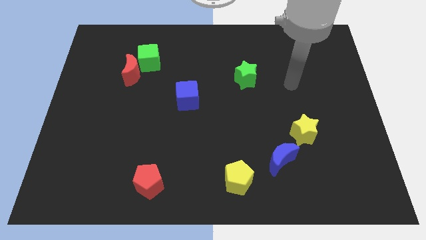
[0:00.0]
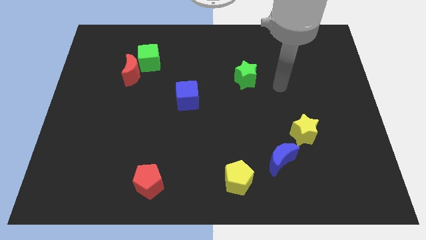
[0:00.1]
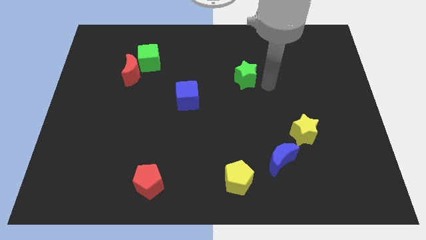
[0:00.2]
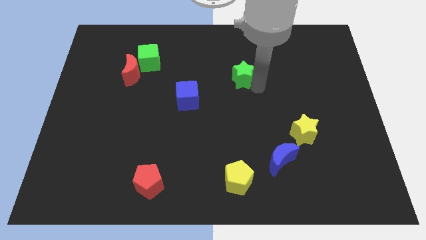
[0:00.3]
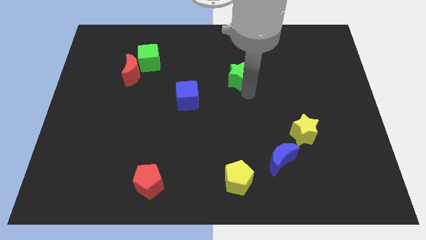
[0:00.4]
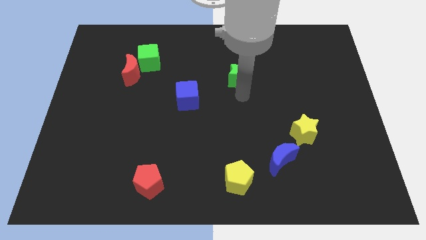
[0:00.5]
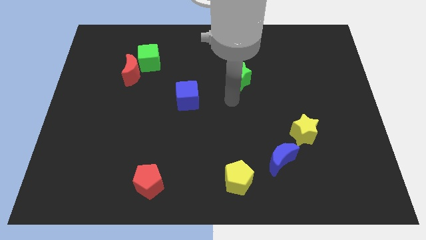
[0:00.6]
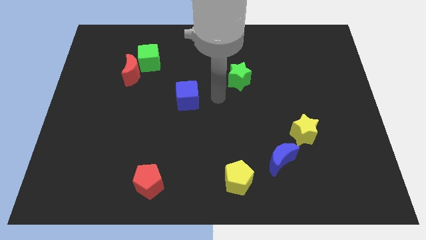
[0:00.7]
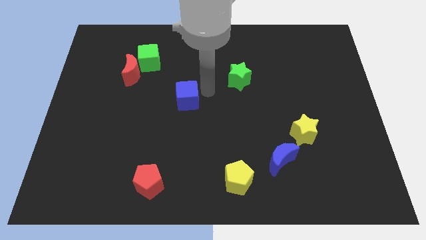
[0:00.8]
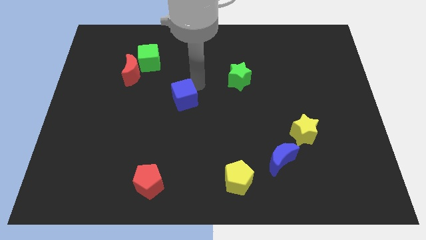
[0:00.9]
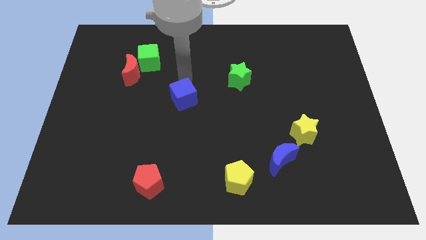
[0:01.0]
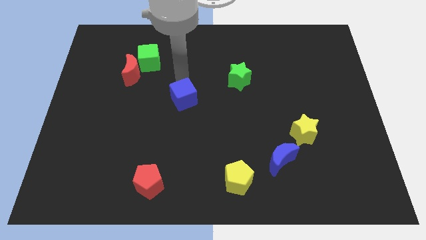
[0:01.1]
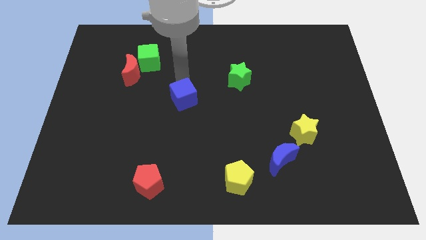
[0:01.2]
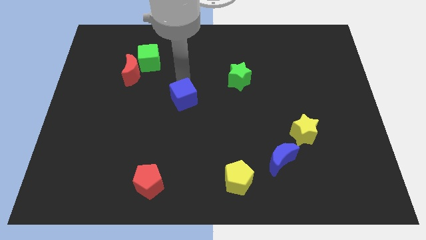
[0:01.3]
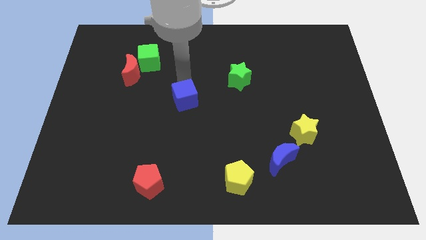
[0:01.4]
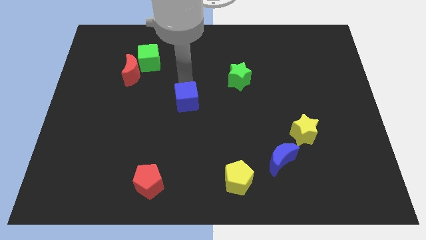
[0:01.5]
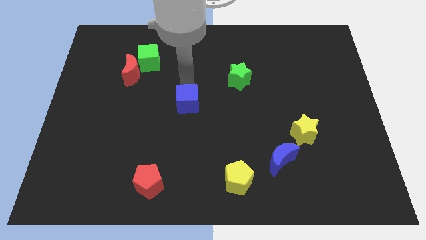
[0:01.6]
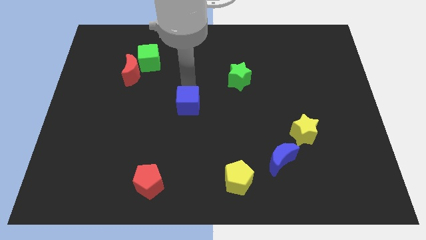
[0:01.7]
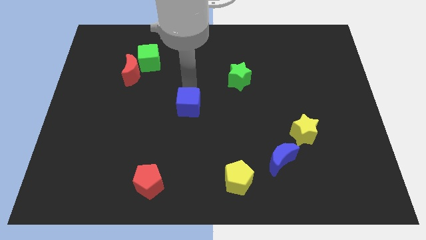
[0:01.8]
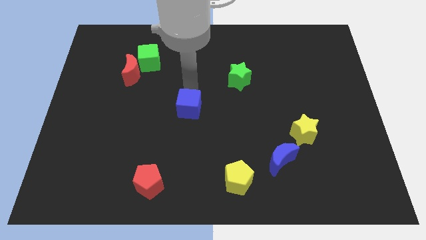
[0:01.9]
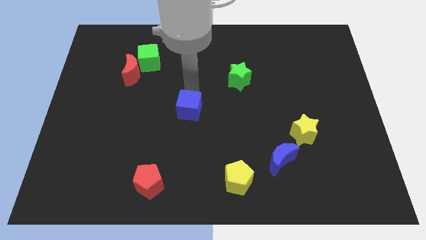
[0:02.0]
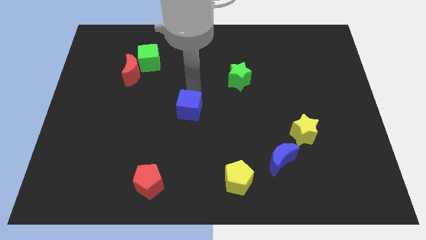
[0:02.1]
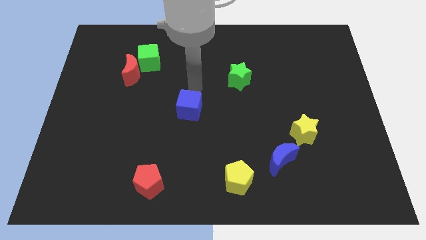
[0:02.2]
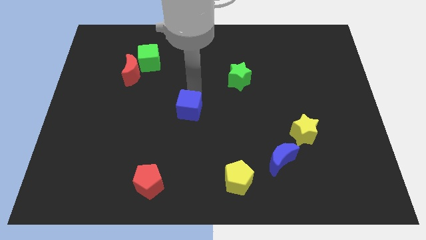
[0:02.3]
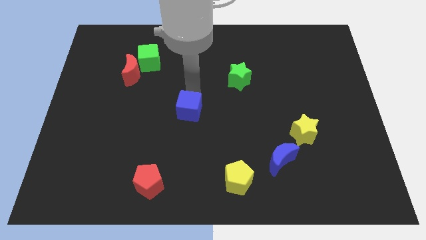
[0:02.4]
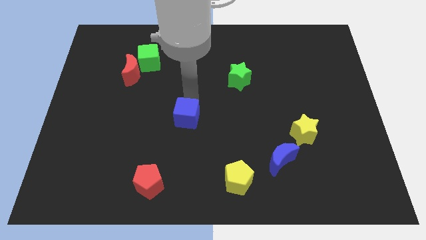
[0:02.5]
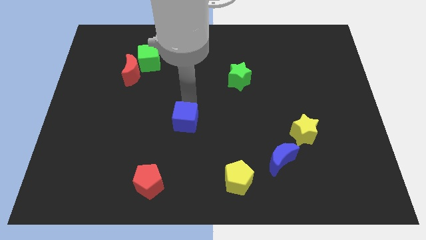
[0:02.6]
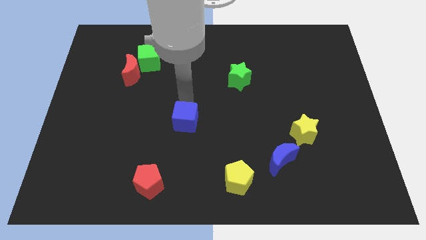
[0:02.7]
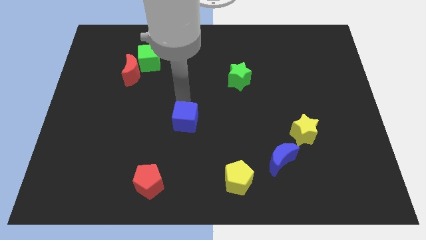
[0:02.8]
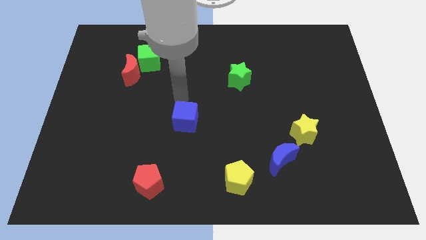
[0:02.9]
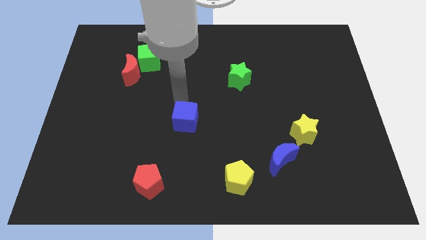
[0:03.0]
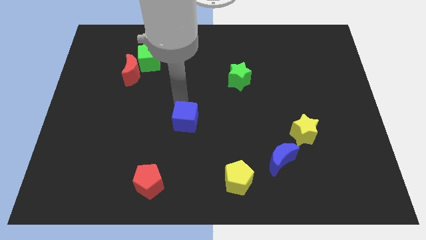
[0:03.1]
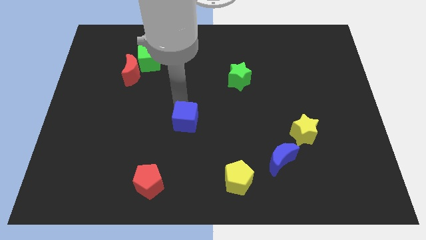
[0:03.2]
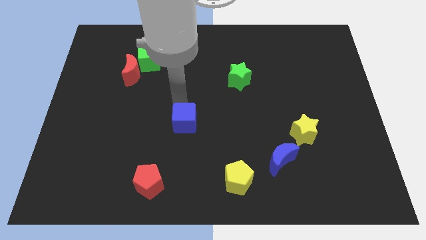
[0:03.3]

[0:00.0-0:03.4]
move the blue cube down a little

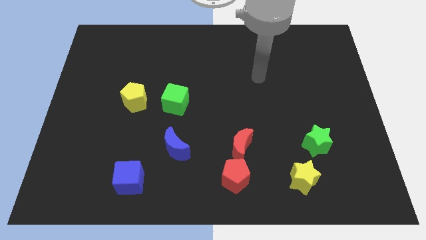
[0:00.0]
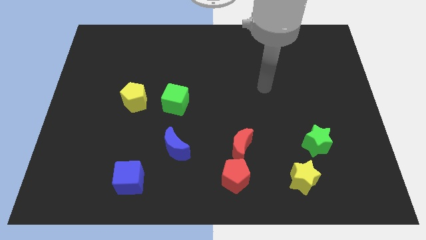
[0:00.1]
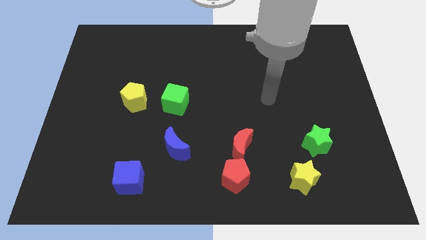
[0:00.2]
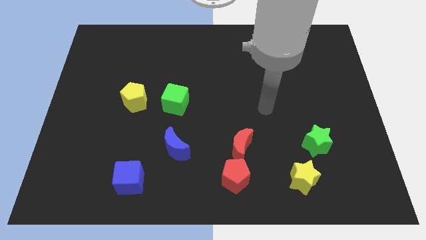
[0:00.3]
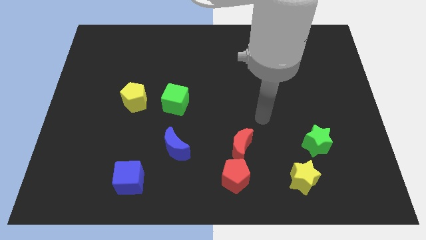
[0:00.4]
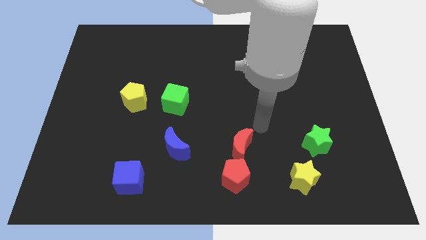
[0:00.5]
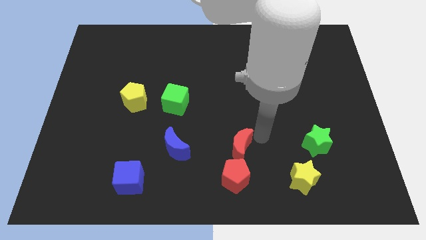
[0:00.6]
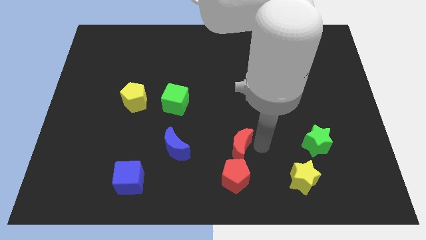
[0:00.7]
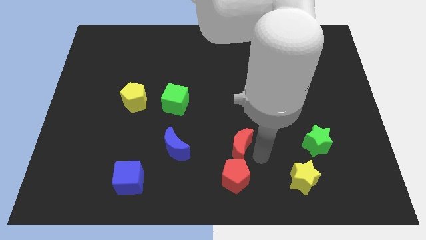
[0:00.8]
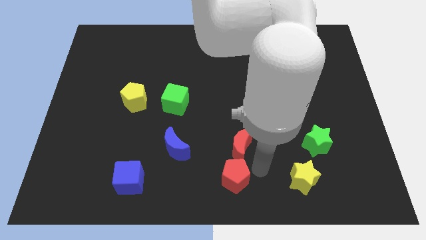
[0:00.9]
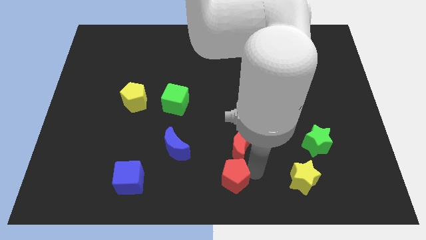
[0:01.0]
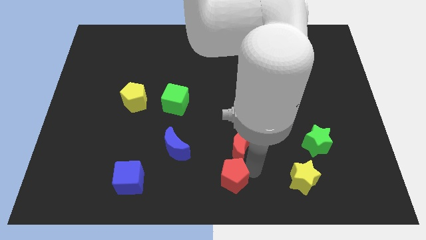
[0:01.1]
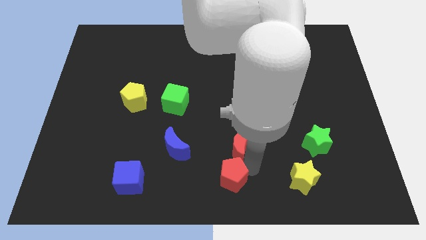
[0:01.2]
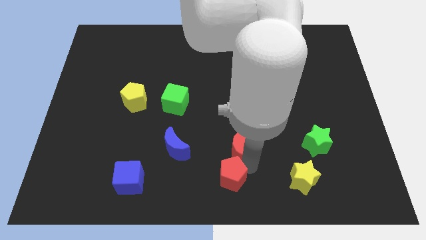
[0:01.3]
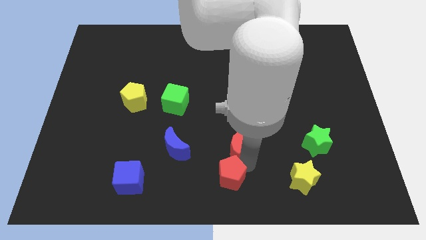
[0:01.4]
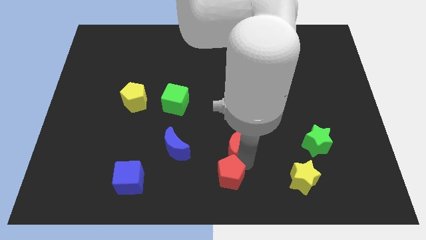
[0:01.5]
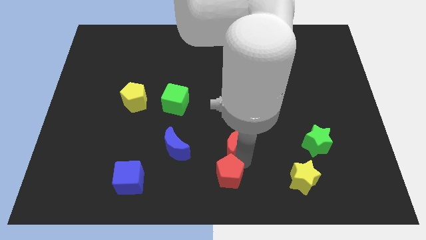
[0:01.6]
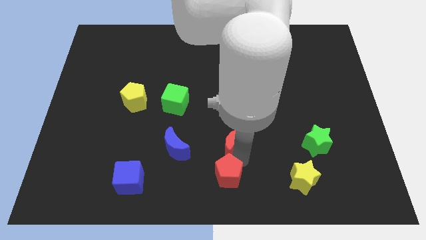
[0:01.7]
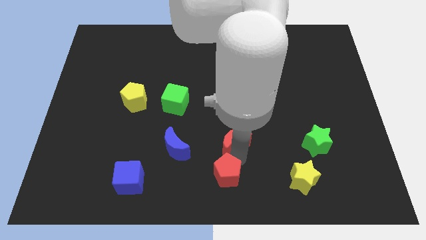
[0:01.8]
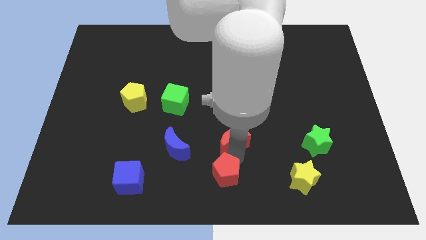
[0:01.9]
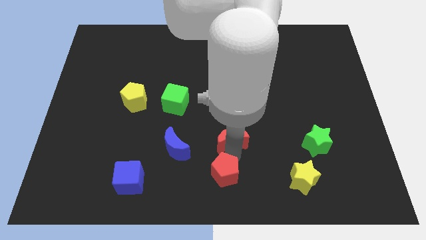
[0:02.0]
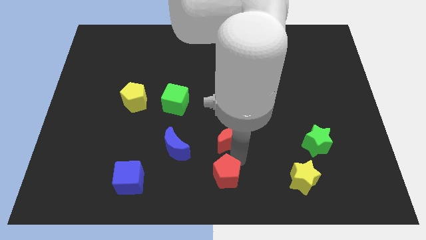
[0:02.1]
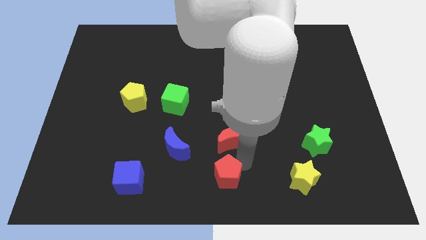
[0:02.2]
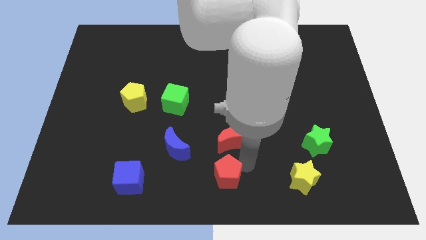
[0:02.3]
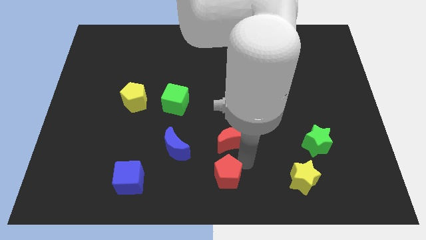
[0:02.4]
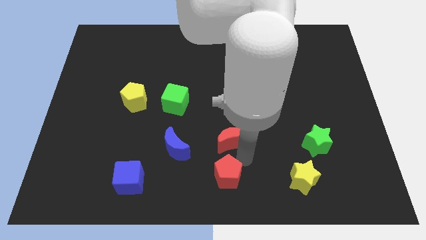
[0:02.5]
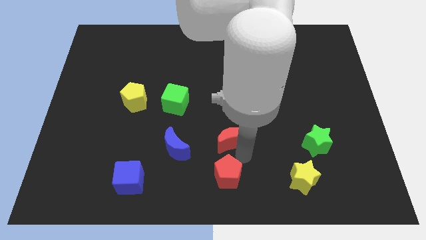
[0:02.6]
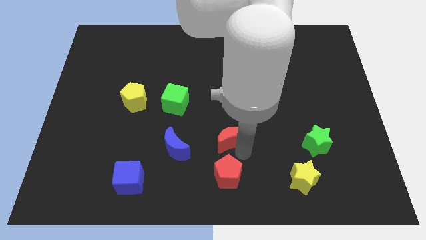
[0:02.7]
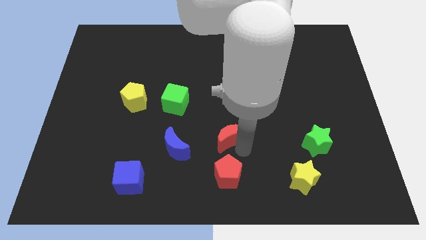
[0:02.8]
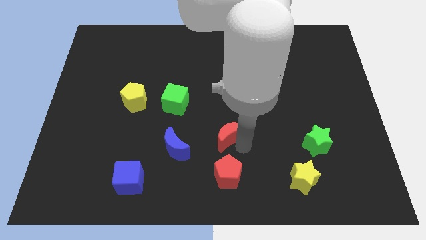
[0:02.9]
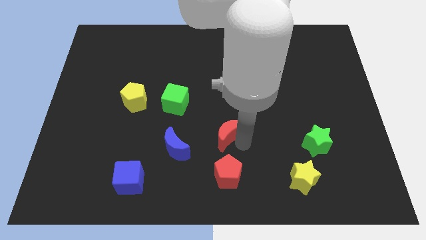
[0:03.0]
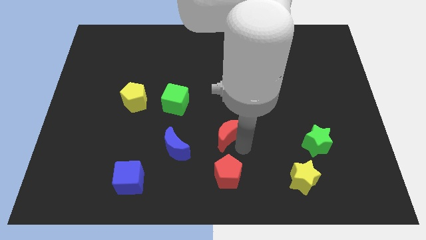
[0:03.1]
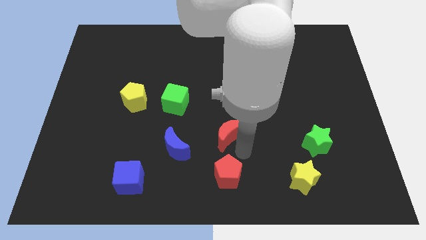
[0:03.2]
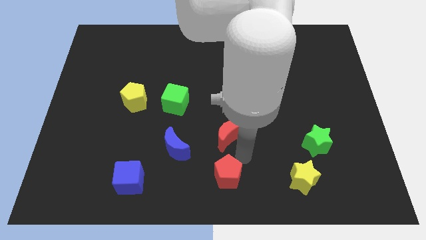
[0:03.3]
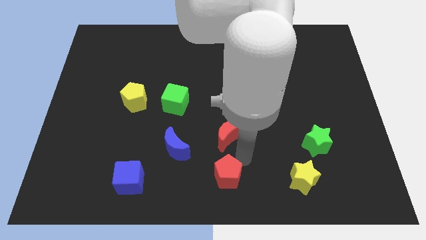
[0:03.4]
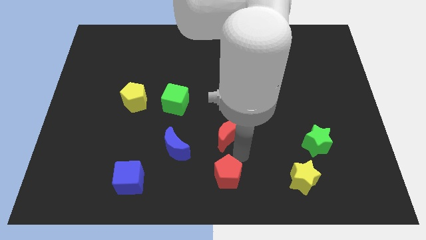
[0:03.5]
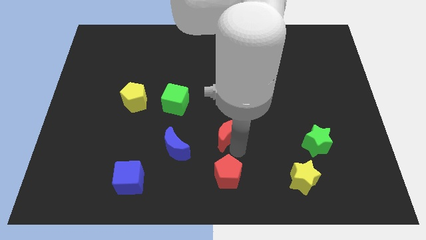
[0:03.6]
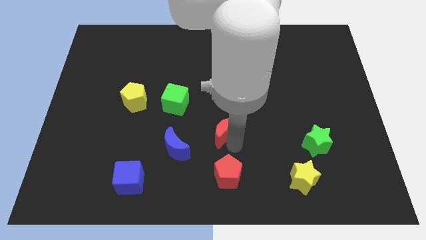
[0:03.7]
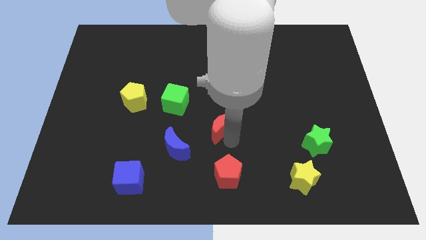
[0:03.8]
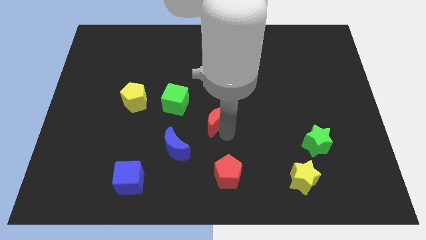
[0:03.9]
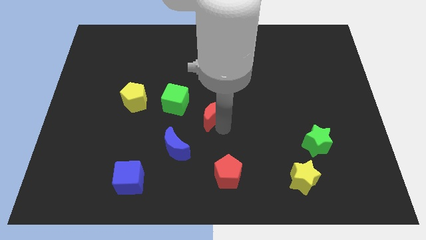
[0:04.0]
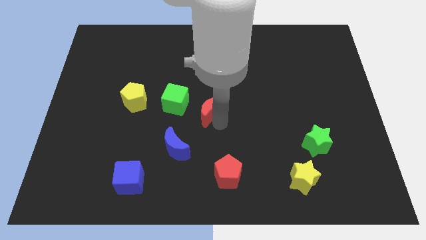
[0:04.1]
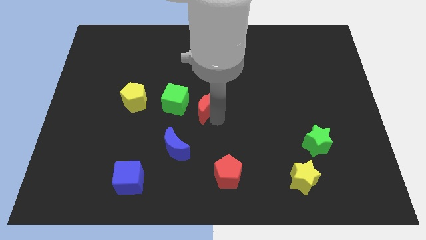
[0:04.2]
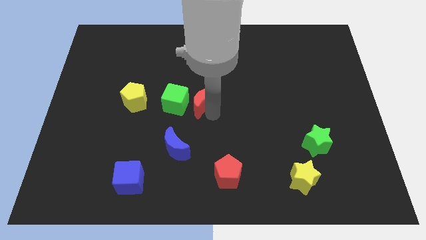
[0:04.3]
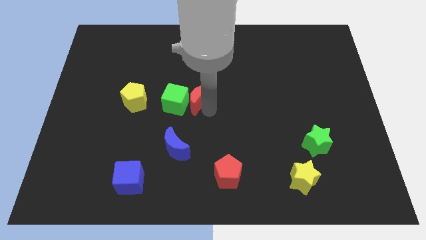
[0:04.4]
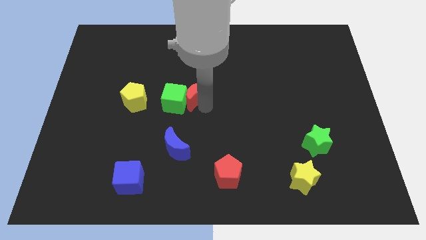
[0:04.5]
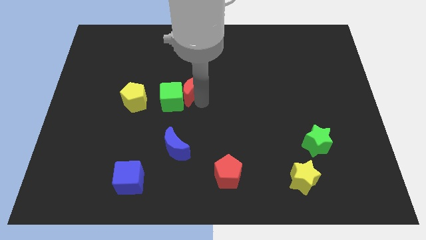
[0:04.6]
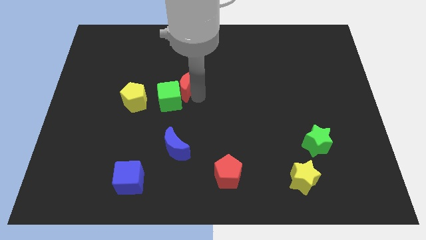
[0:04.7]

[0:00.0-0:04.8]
push the red moon diagonally up and to the left
